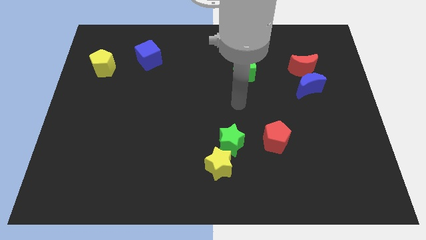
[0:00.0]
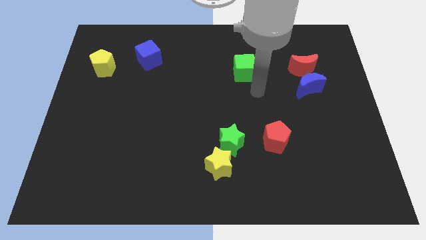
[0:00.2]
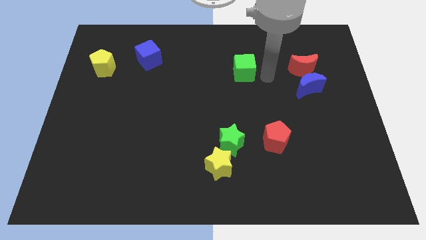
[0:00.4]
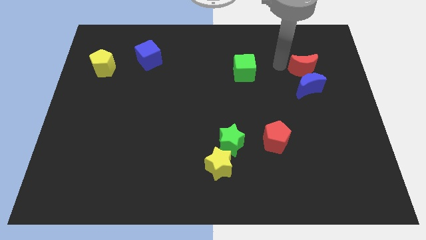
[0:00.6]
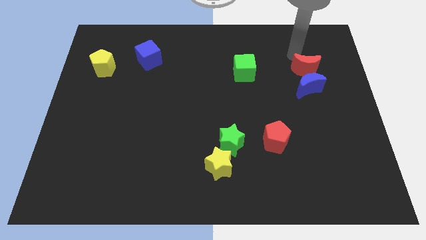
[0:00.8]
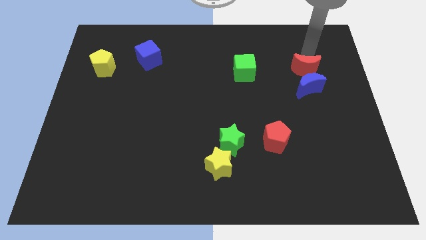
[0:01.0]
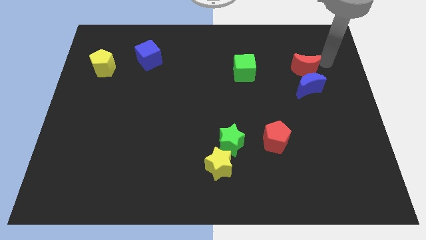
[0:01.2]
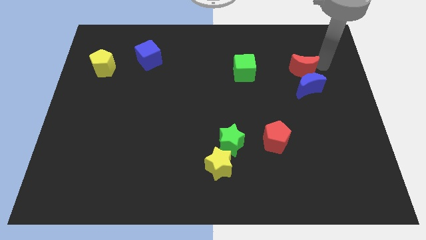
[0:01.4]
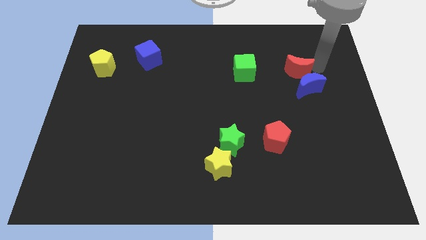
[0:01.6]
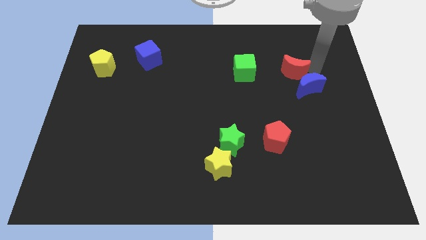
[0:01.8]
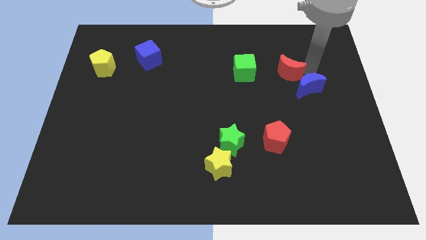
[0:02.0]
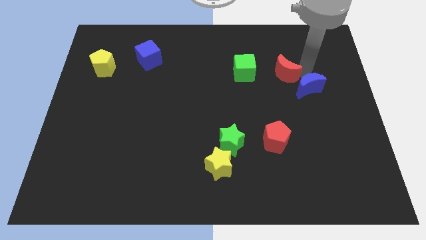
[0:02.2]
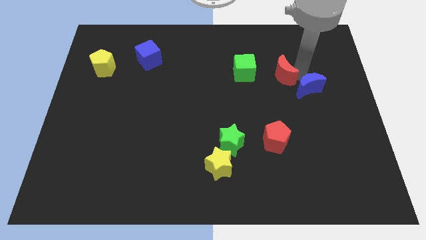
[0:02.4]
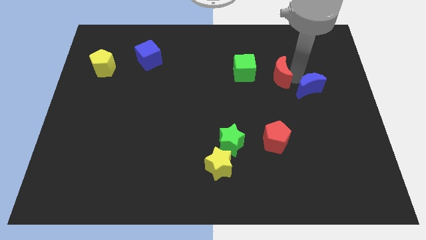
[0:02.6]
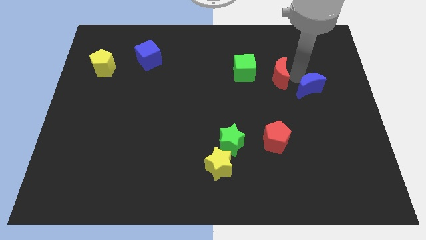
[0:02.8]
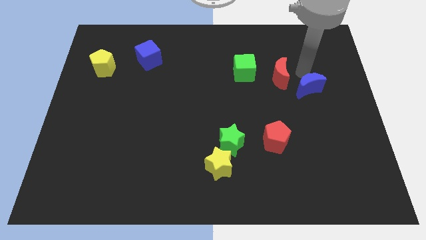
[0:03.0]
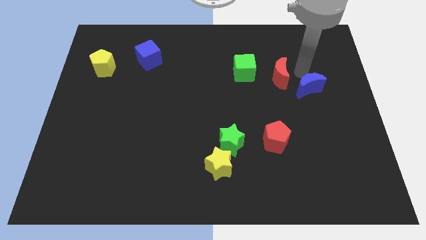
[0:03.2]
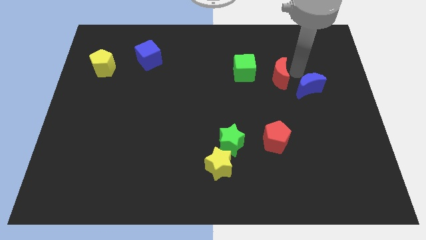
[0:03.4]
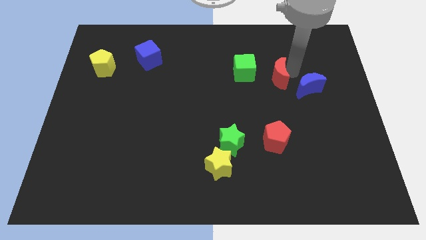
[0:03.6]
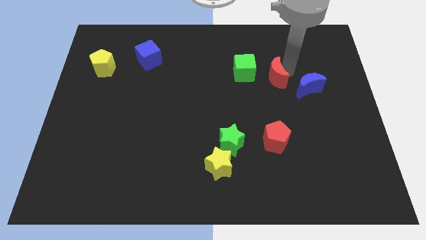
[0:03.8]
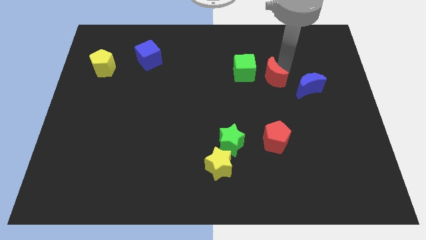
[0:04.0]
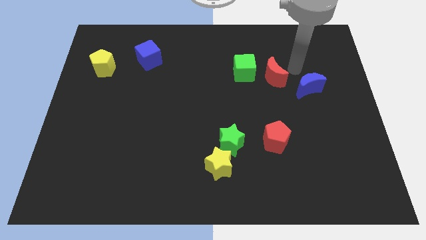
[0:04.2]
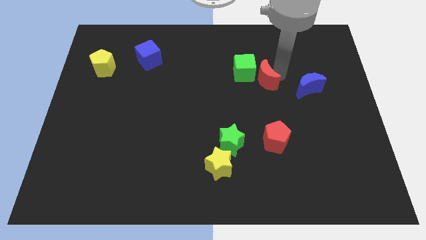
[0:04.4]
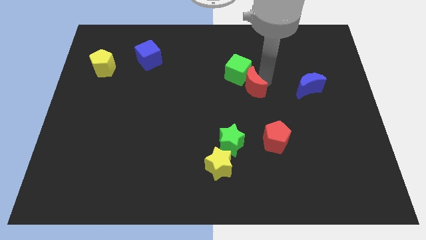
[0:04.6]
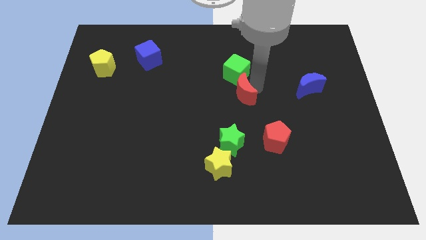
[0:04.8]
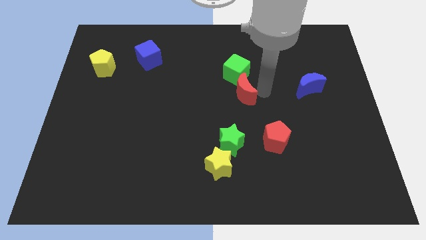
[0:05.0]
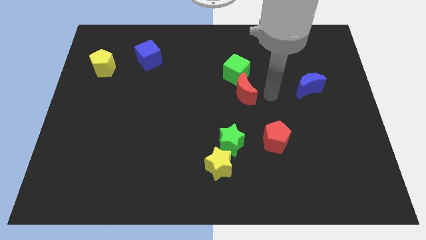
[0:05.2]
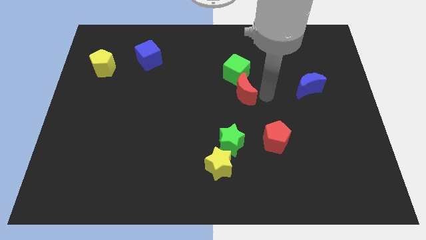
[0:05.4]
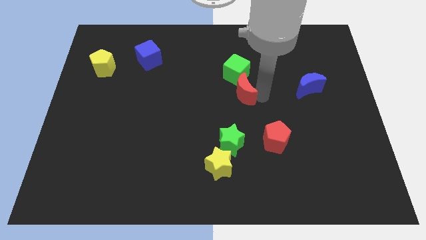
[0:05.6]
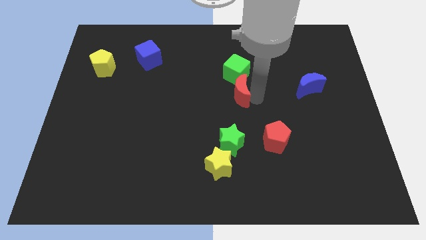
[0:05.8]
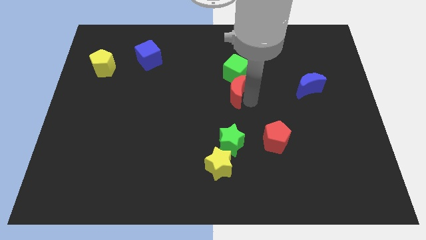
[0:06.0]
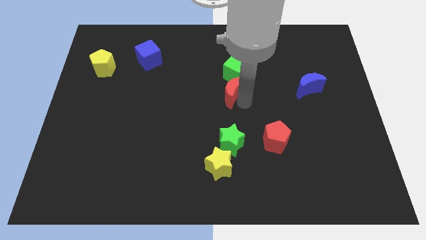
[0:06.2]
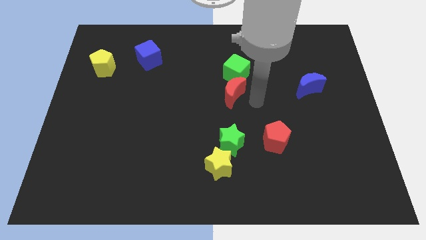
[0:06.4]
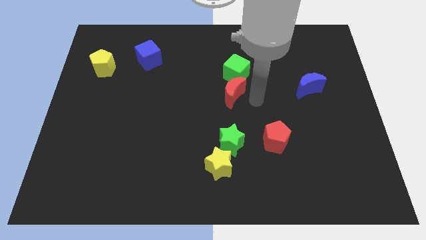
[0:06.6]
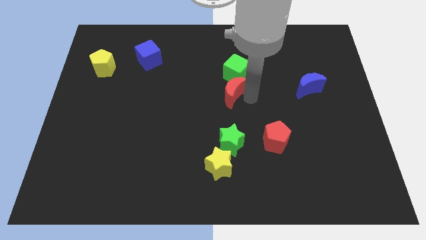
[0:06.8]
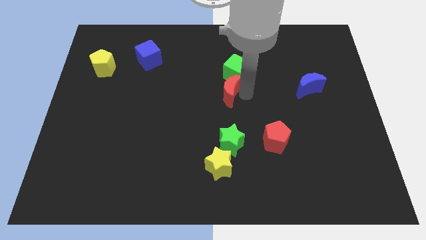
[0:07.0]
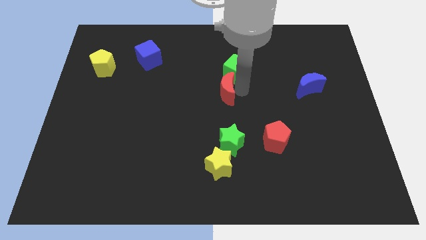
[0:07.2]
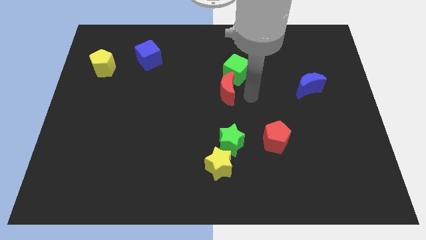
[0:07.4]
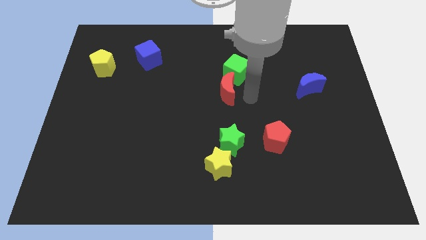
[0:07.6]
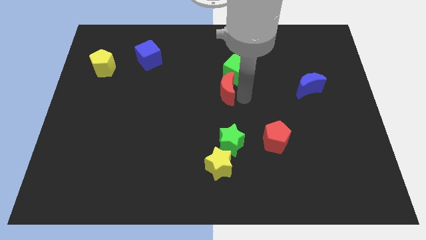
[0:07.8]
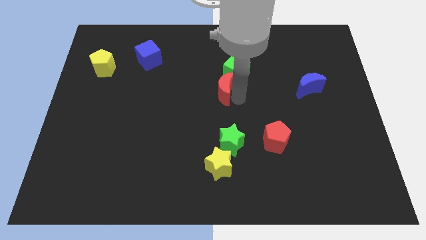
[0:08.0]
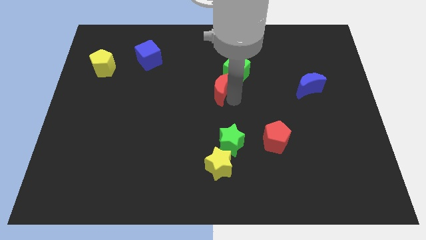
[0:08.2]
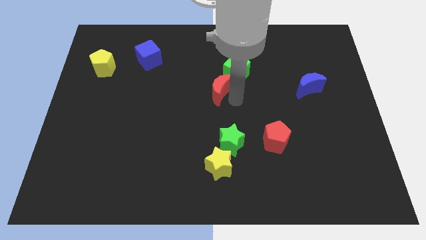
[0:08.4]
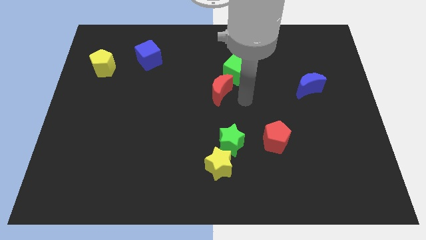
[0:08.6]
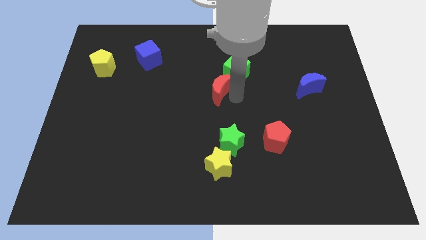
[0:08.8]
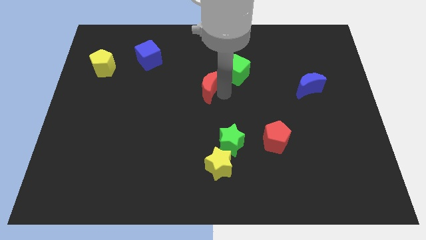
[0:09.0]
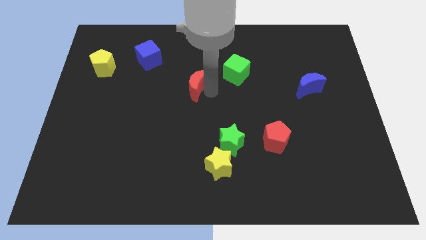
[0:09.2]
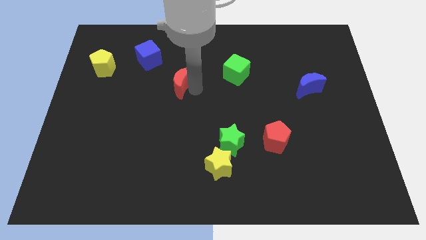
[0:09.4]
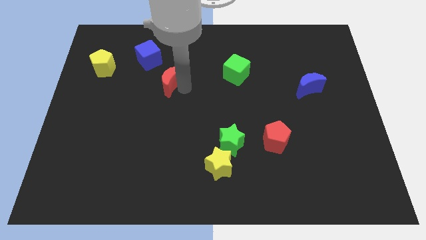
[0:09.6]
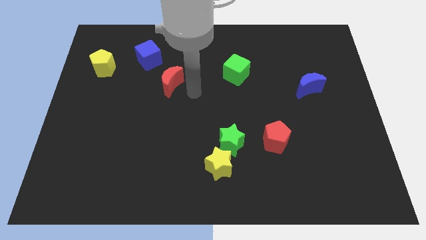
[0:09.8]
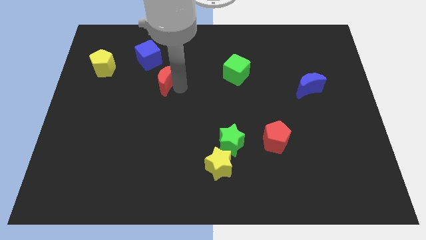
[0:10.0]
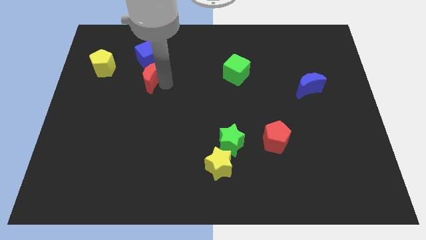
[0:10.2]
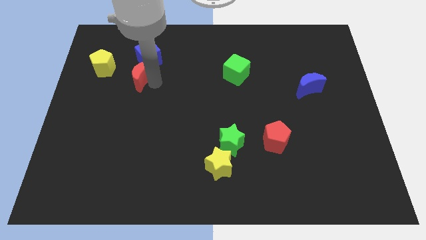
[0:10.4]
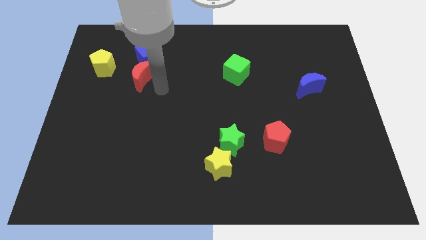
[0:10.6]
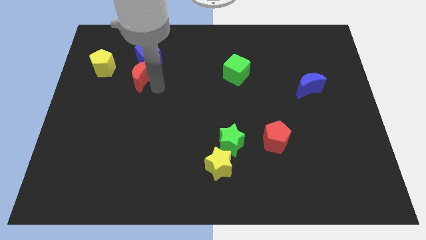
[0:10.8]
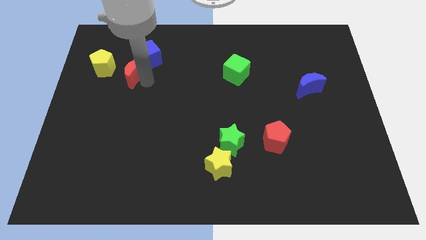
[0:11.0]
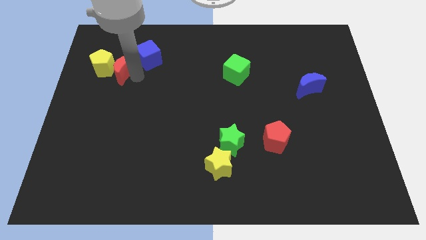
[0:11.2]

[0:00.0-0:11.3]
push the red moon to the yellow pentagon

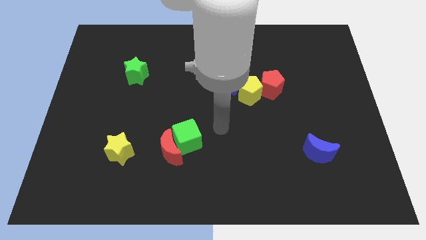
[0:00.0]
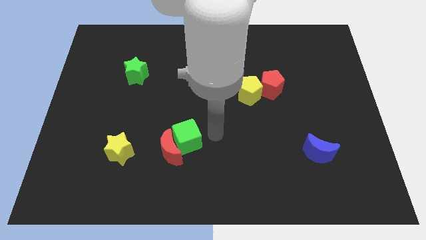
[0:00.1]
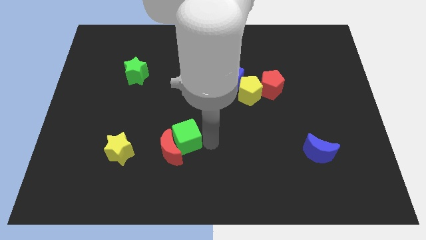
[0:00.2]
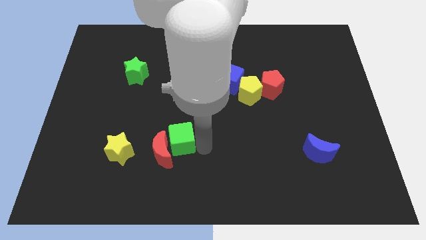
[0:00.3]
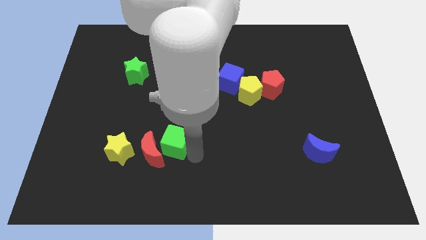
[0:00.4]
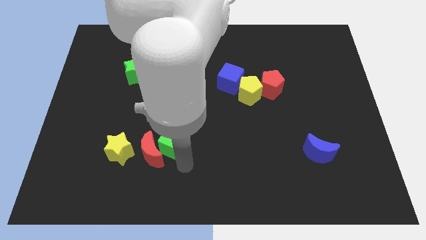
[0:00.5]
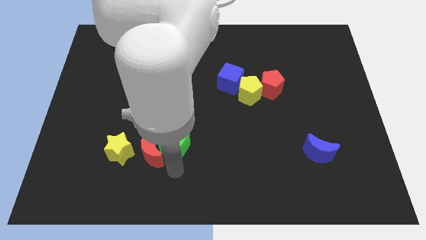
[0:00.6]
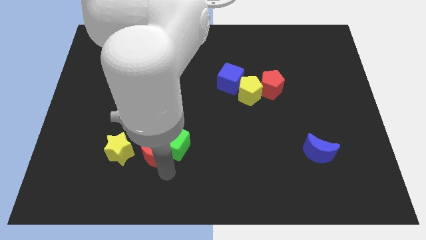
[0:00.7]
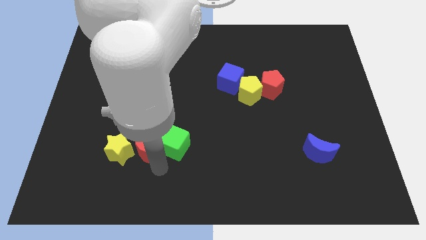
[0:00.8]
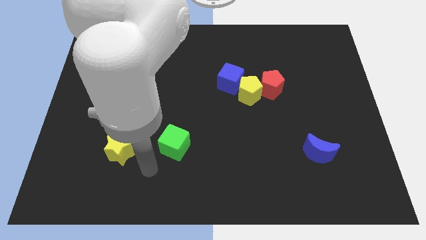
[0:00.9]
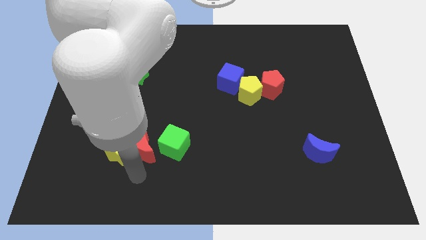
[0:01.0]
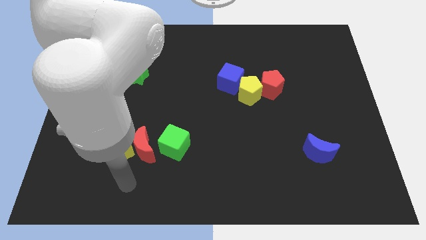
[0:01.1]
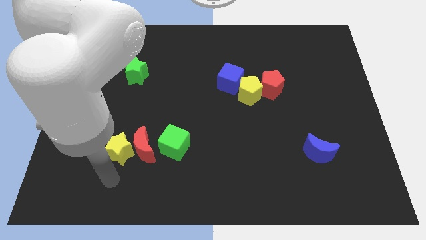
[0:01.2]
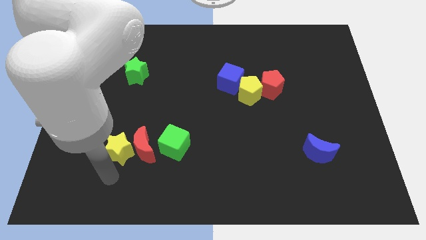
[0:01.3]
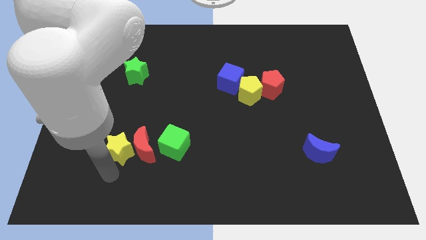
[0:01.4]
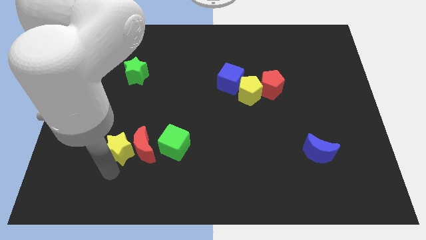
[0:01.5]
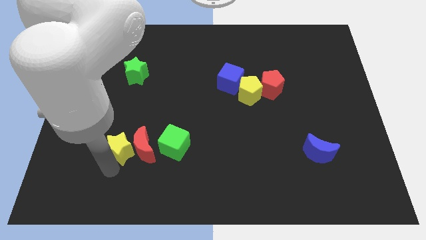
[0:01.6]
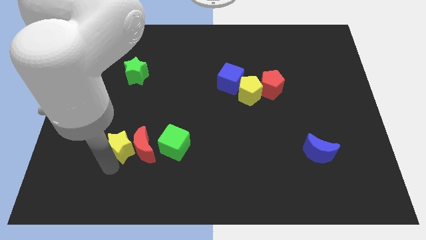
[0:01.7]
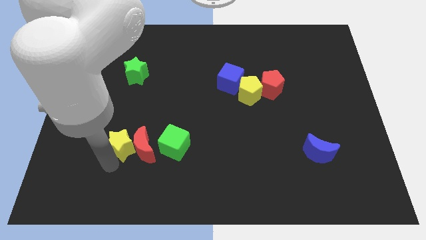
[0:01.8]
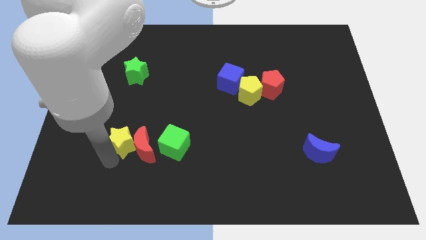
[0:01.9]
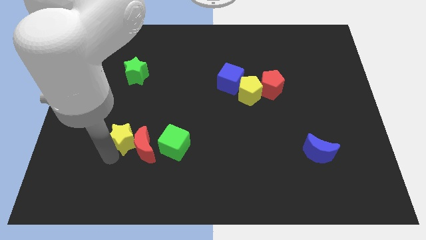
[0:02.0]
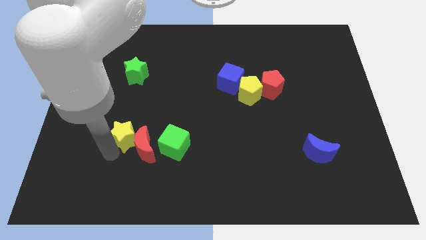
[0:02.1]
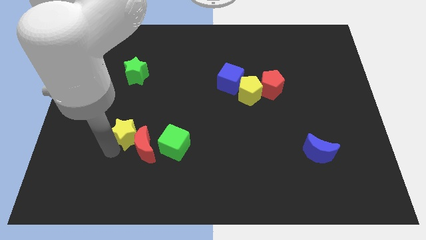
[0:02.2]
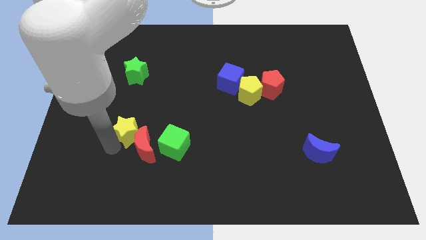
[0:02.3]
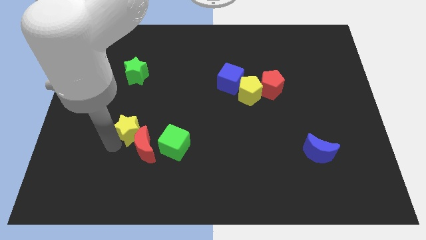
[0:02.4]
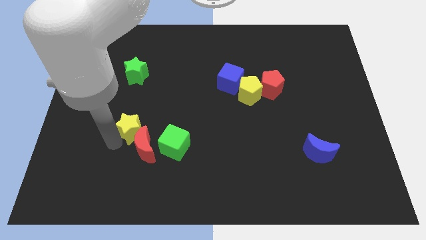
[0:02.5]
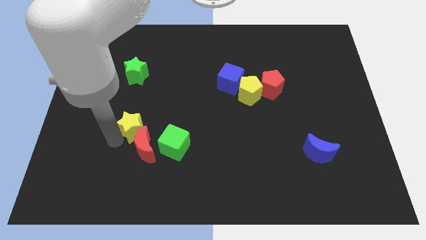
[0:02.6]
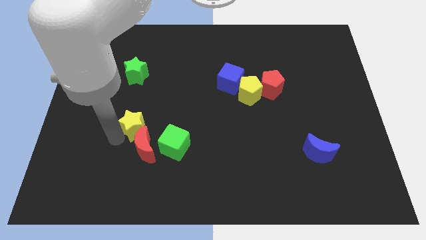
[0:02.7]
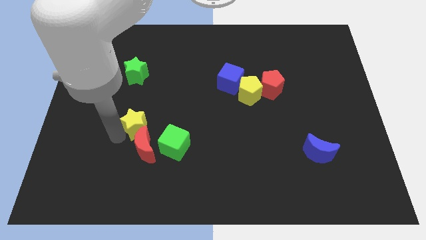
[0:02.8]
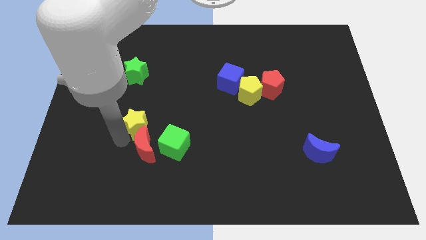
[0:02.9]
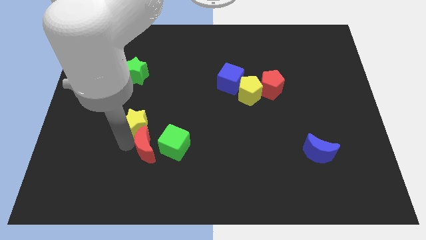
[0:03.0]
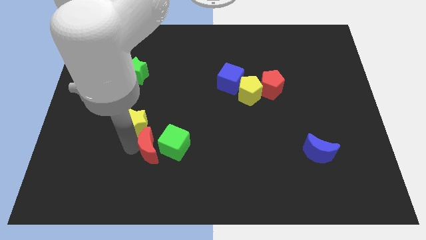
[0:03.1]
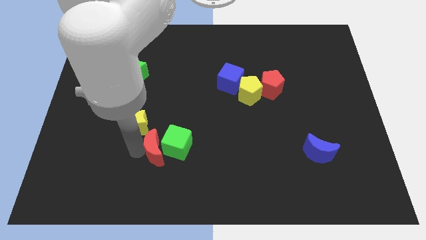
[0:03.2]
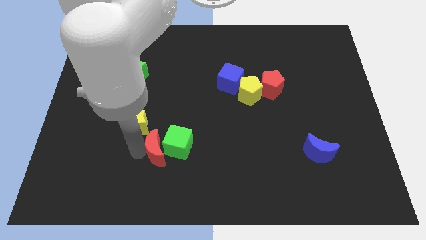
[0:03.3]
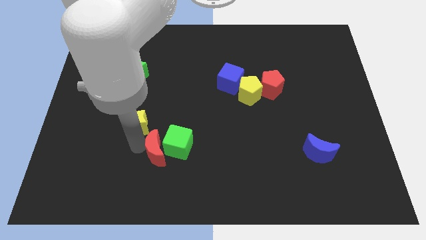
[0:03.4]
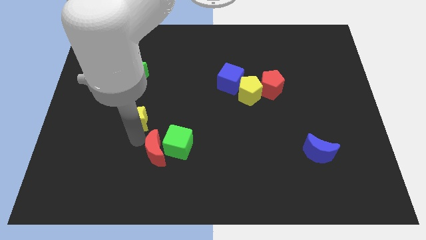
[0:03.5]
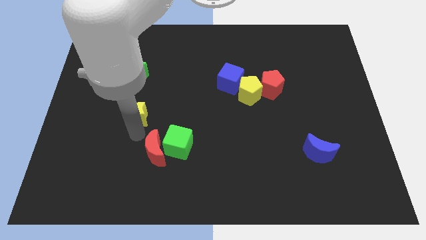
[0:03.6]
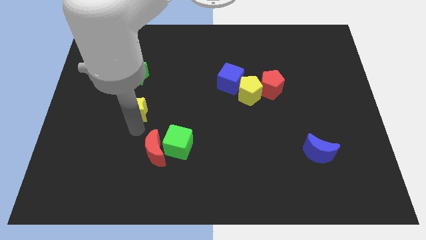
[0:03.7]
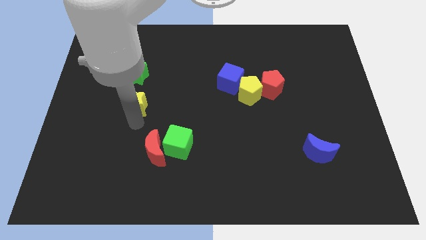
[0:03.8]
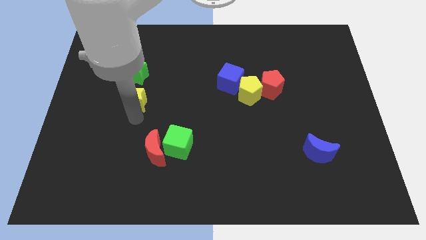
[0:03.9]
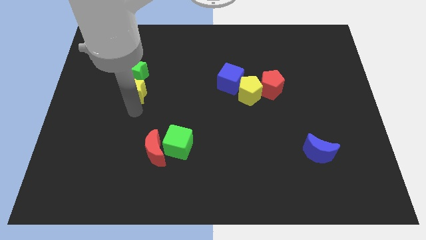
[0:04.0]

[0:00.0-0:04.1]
put the yellow star close to the green star
